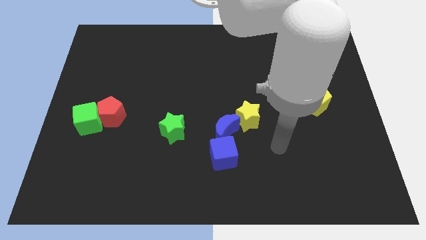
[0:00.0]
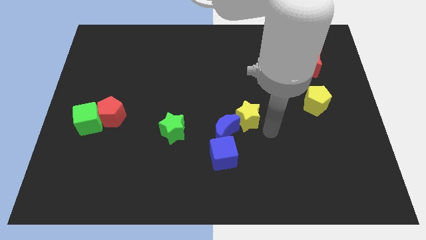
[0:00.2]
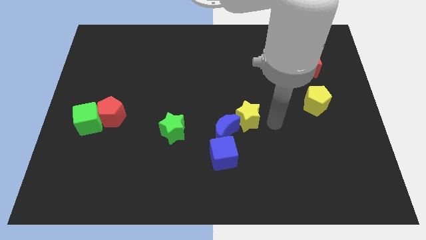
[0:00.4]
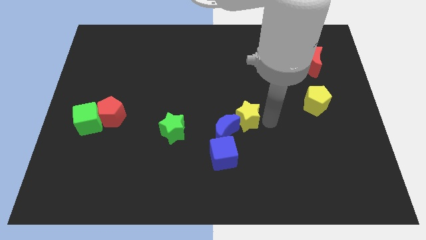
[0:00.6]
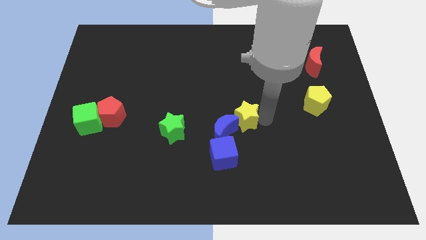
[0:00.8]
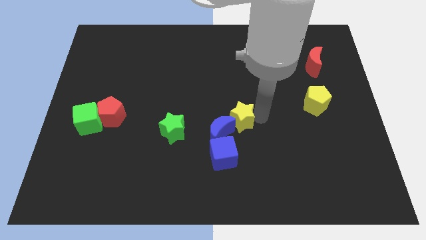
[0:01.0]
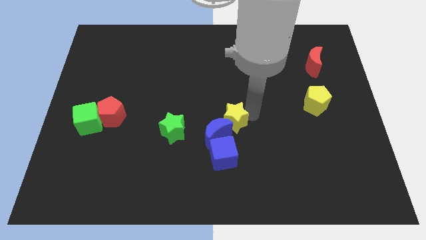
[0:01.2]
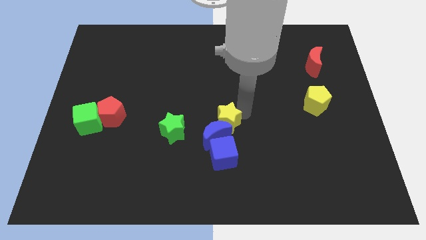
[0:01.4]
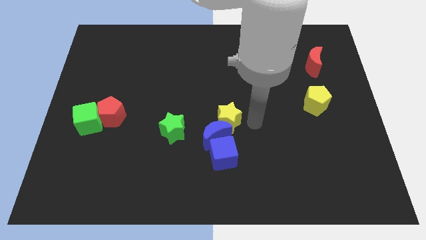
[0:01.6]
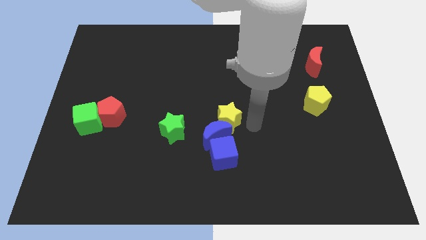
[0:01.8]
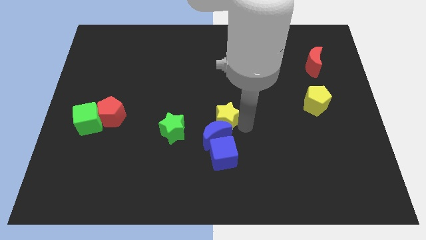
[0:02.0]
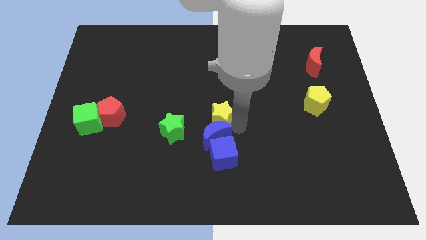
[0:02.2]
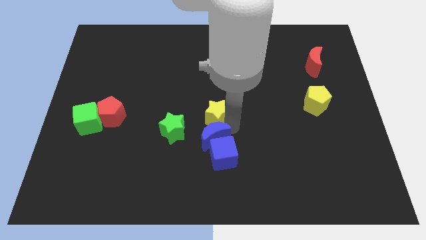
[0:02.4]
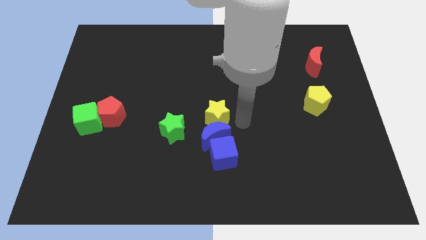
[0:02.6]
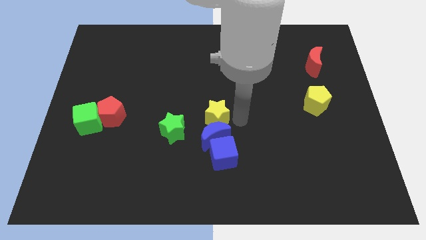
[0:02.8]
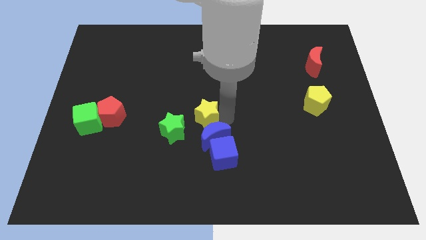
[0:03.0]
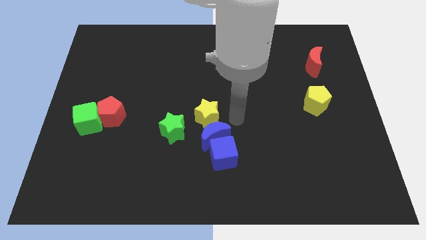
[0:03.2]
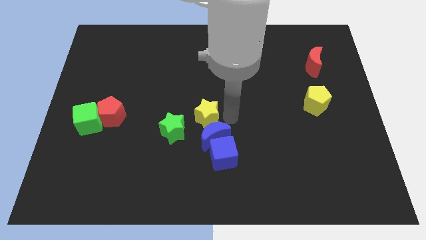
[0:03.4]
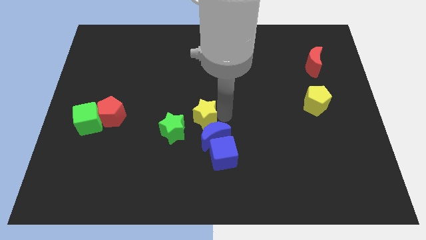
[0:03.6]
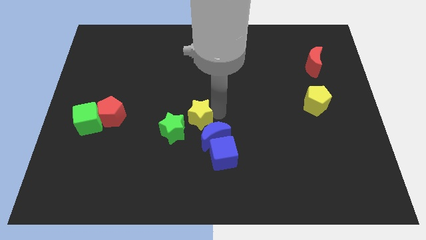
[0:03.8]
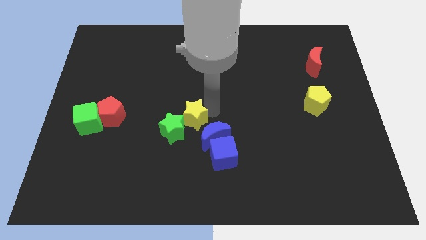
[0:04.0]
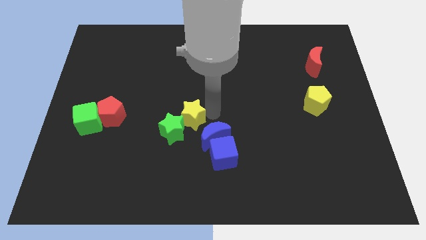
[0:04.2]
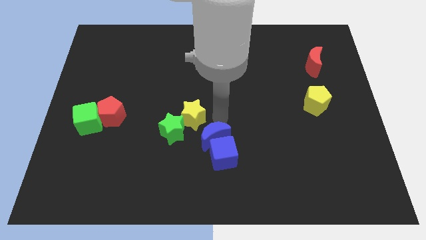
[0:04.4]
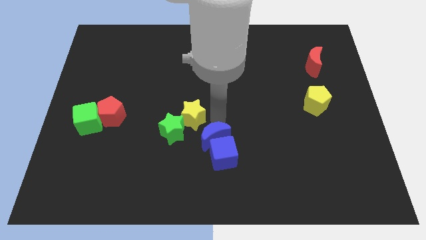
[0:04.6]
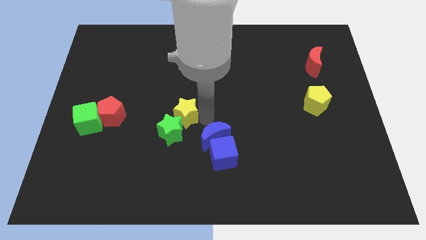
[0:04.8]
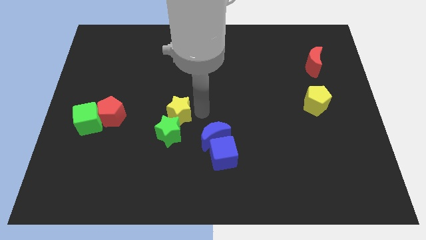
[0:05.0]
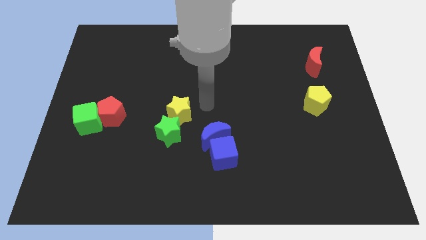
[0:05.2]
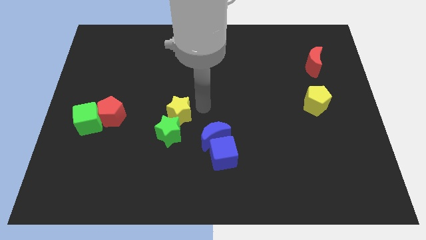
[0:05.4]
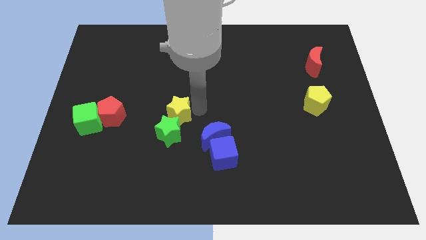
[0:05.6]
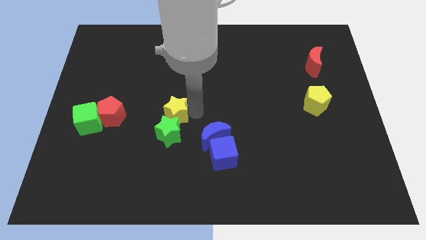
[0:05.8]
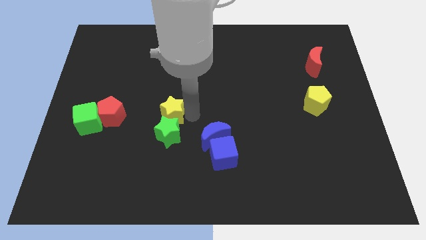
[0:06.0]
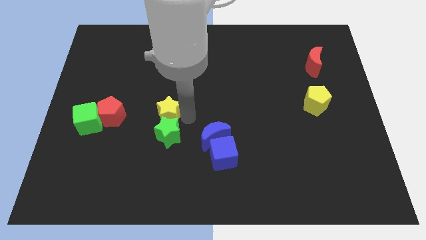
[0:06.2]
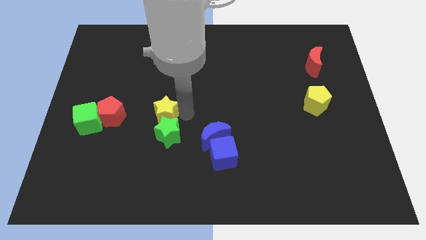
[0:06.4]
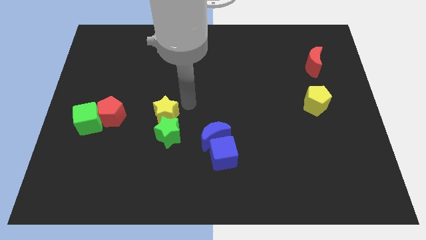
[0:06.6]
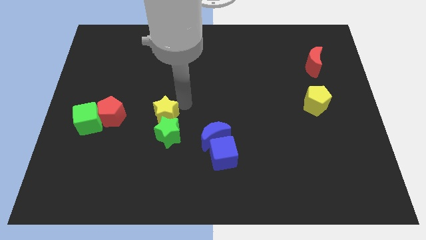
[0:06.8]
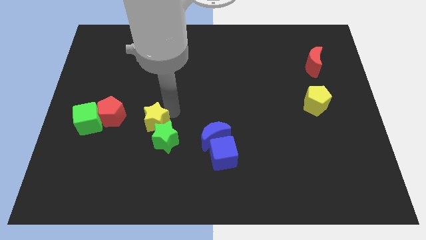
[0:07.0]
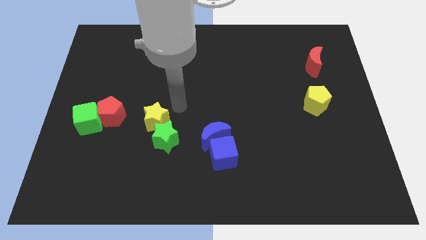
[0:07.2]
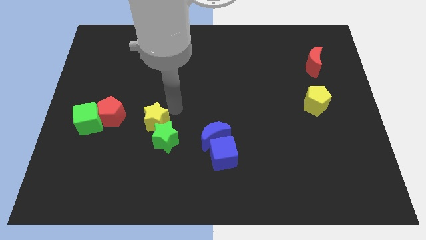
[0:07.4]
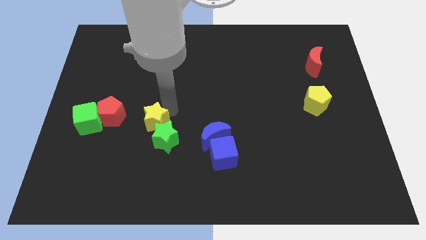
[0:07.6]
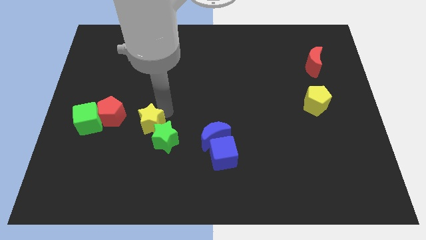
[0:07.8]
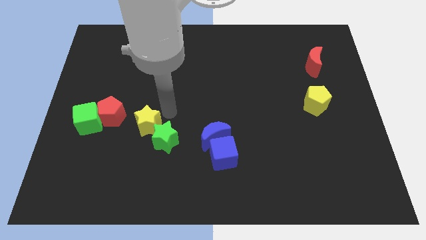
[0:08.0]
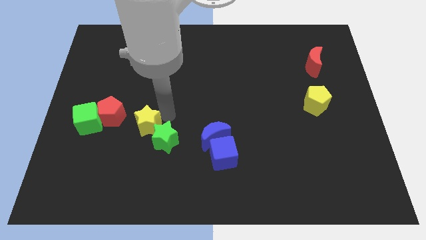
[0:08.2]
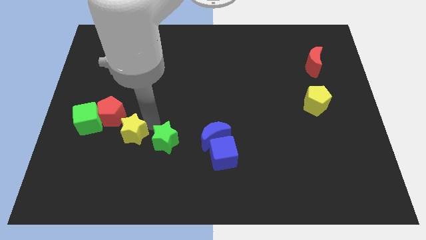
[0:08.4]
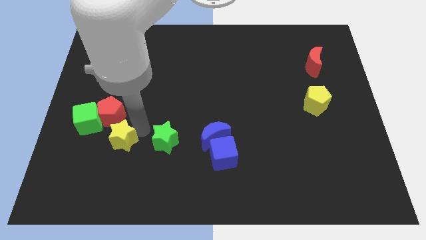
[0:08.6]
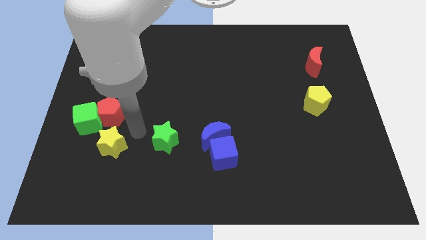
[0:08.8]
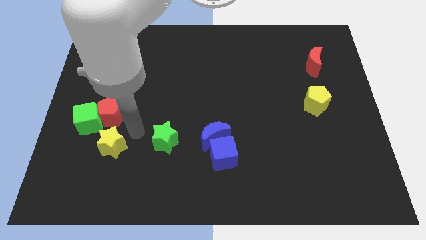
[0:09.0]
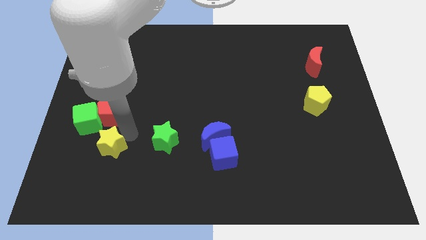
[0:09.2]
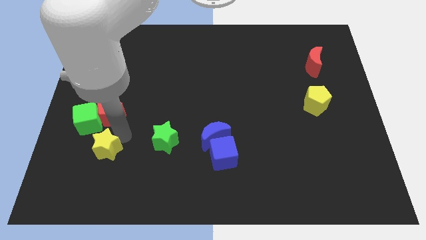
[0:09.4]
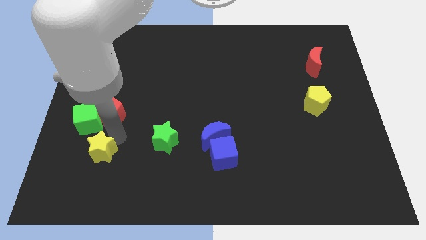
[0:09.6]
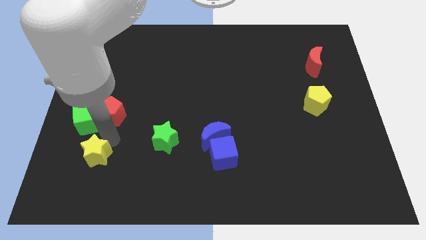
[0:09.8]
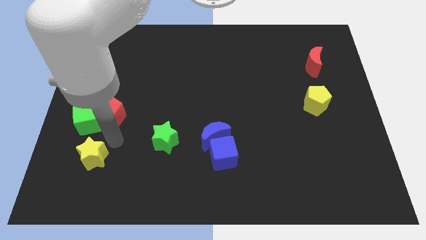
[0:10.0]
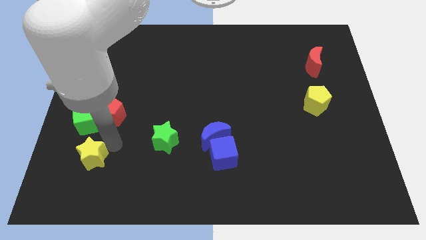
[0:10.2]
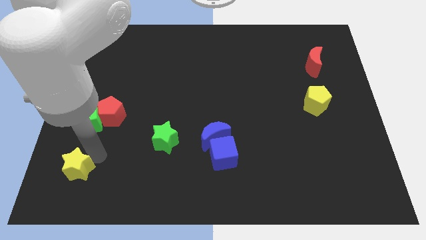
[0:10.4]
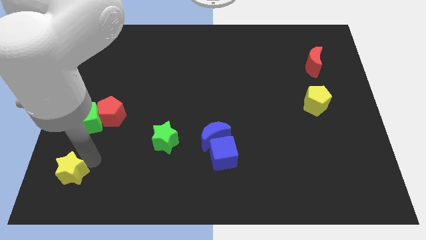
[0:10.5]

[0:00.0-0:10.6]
push the yellow star to the bottom left corner
